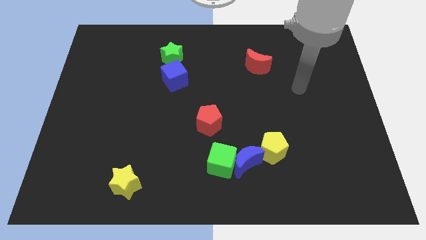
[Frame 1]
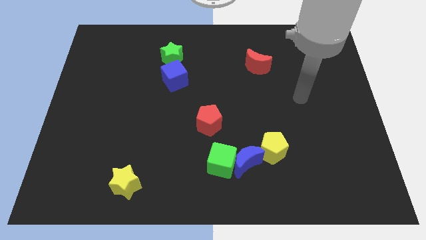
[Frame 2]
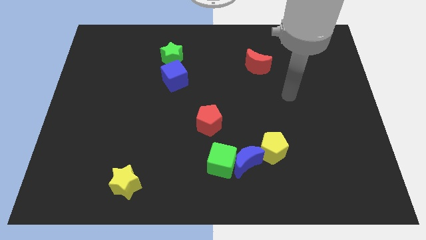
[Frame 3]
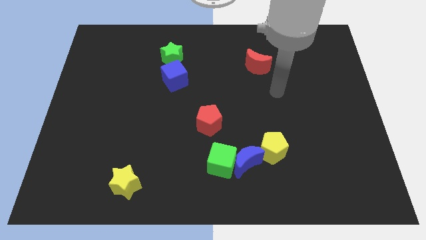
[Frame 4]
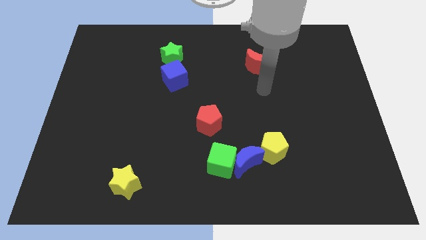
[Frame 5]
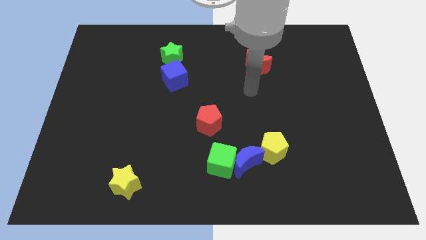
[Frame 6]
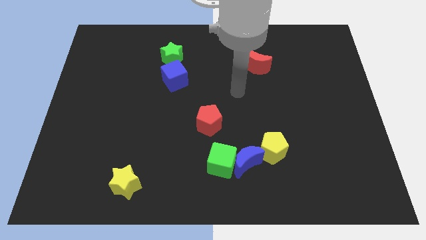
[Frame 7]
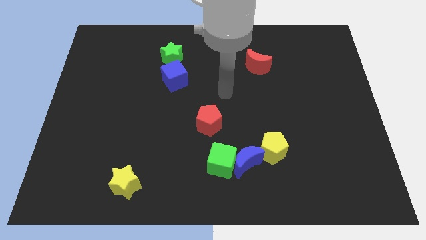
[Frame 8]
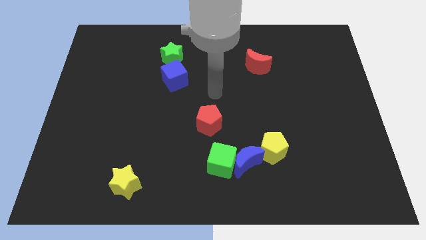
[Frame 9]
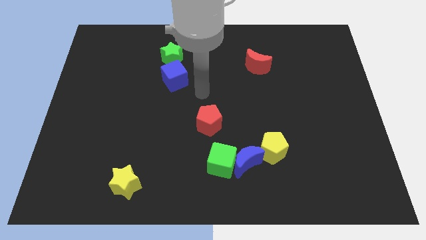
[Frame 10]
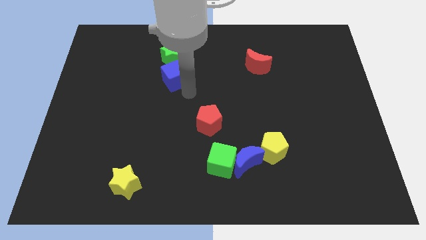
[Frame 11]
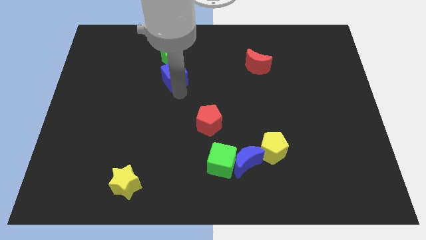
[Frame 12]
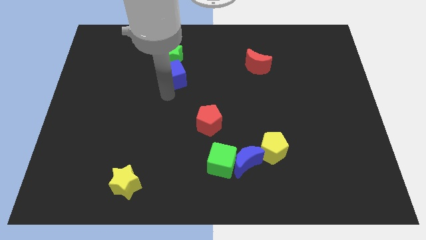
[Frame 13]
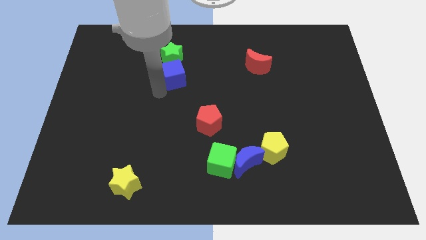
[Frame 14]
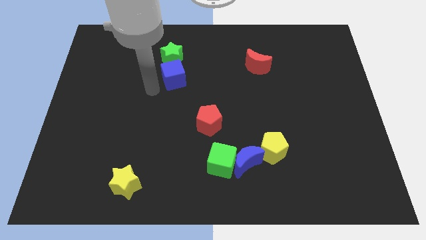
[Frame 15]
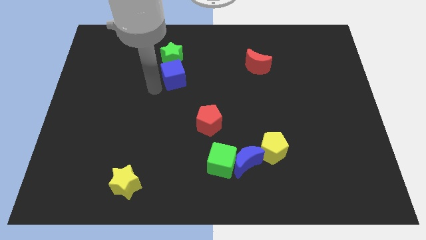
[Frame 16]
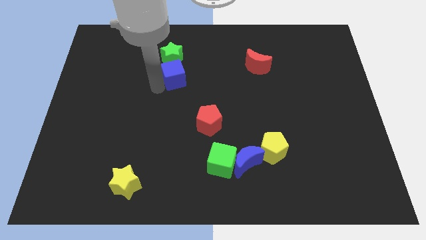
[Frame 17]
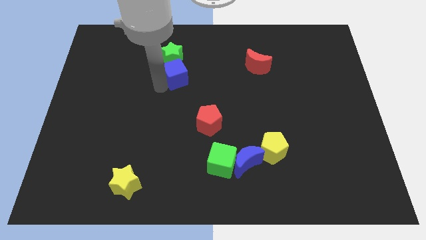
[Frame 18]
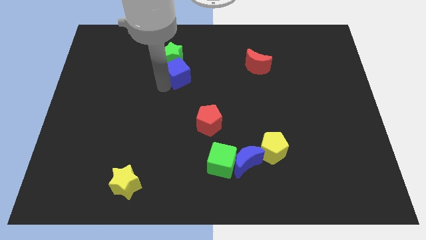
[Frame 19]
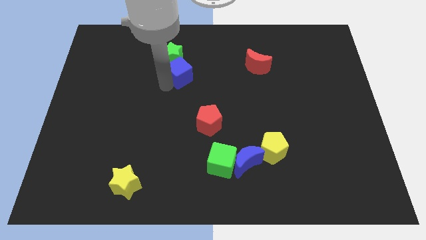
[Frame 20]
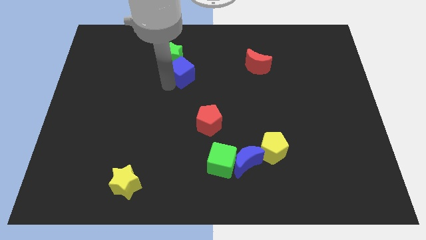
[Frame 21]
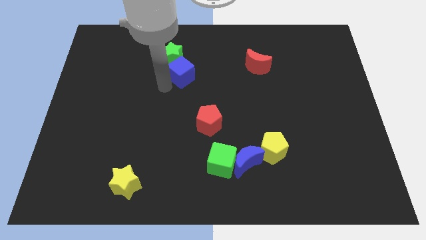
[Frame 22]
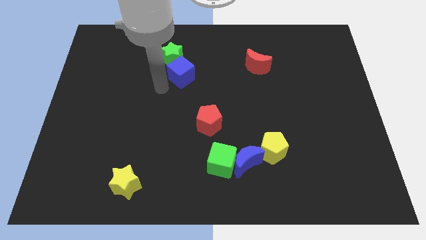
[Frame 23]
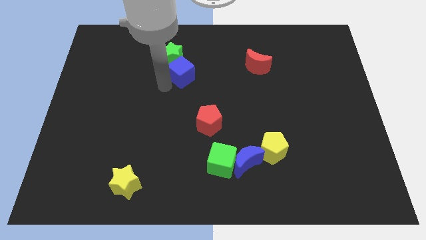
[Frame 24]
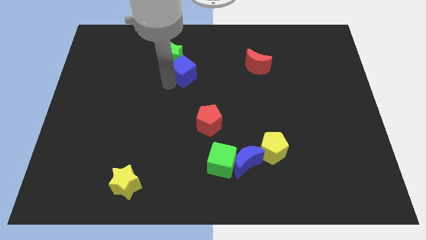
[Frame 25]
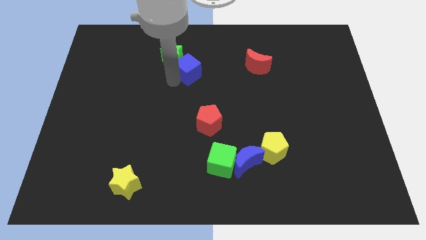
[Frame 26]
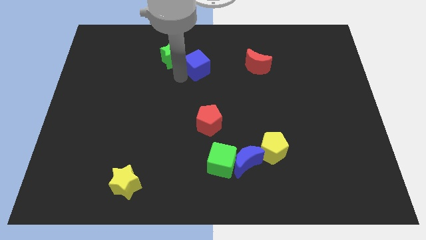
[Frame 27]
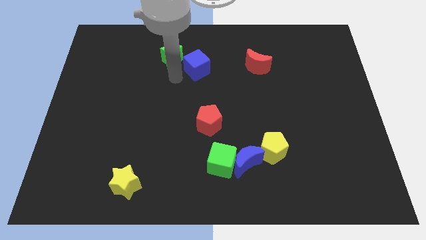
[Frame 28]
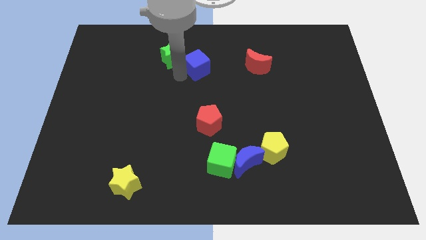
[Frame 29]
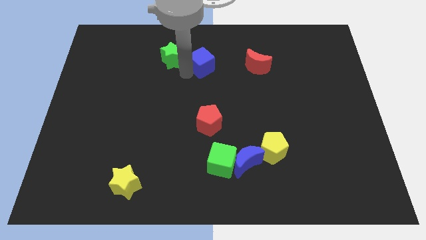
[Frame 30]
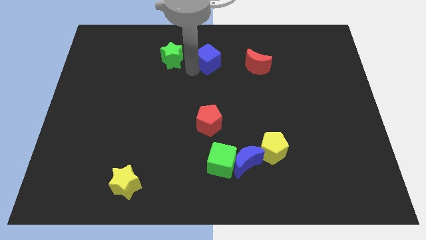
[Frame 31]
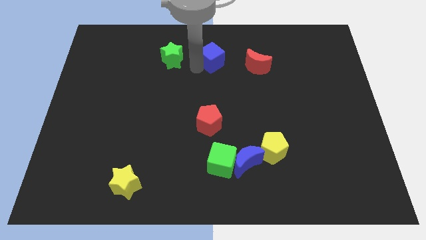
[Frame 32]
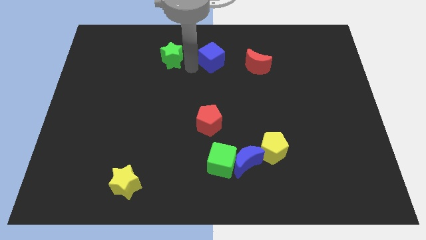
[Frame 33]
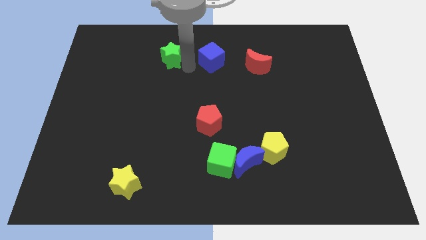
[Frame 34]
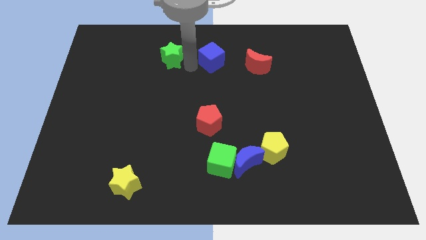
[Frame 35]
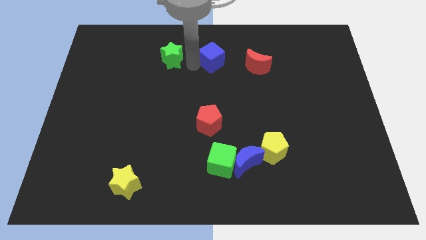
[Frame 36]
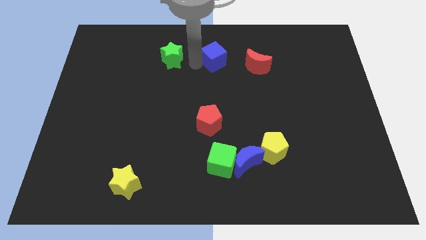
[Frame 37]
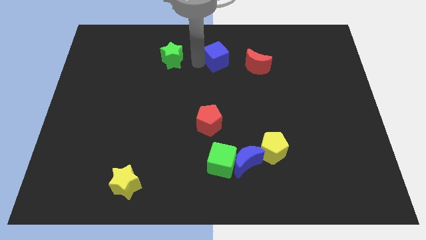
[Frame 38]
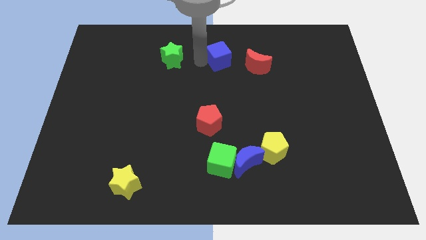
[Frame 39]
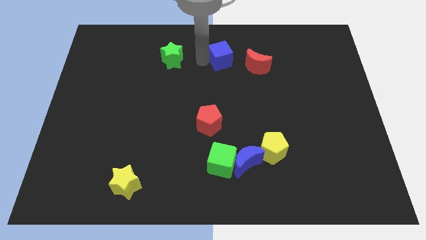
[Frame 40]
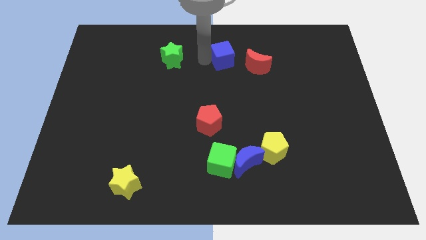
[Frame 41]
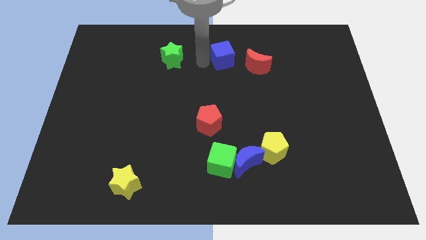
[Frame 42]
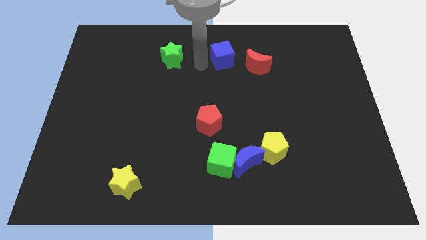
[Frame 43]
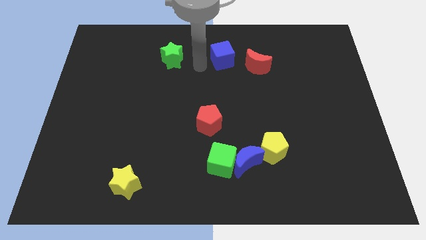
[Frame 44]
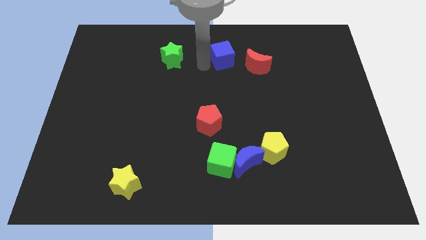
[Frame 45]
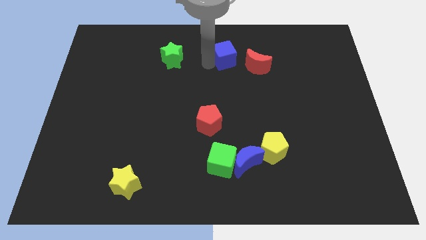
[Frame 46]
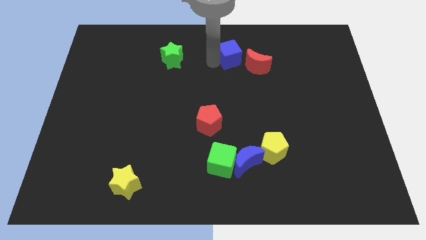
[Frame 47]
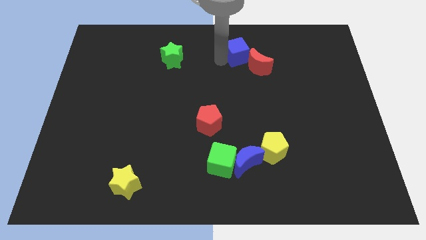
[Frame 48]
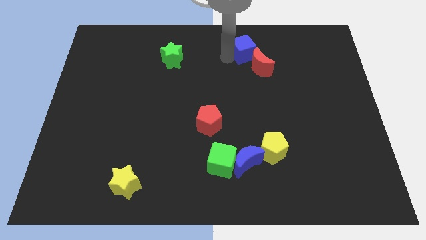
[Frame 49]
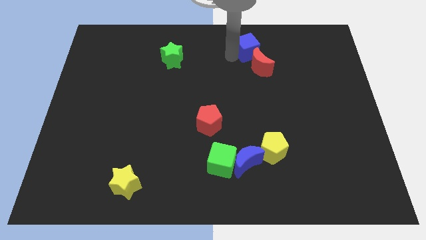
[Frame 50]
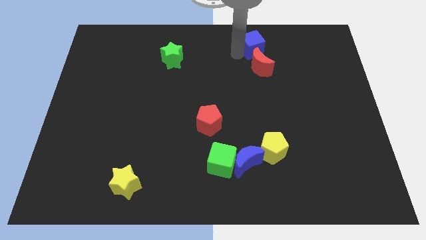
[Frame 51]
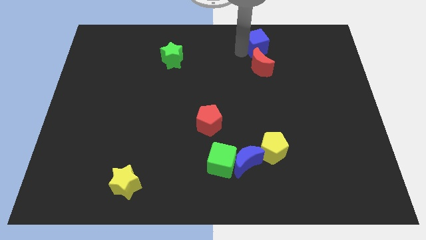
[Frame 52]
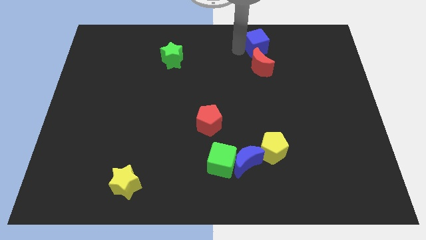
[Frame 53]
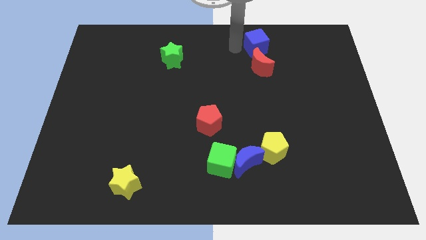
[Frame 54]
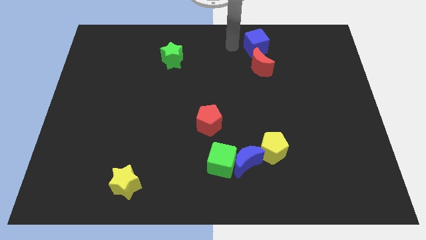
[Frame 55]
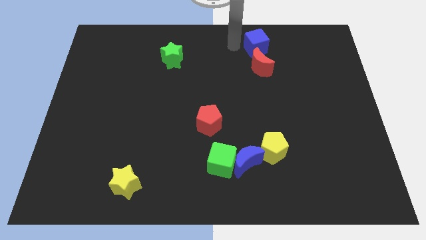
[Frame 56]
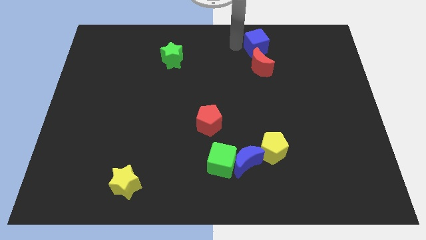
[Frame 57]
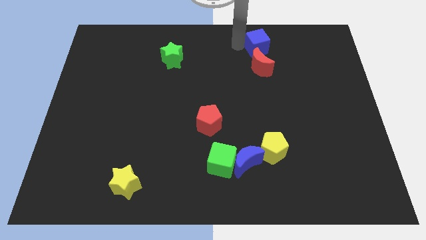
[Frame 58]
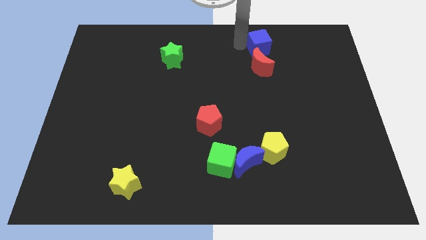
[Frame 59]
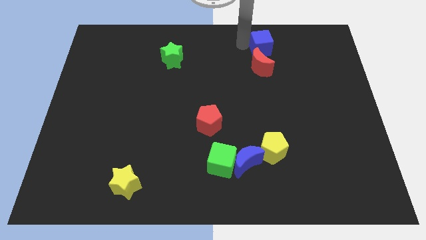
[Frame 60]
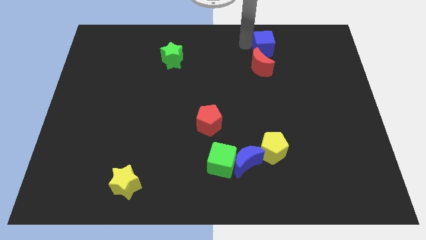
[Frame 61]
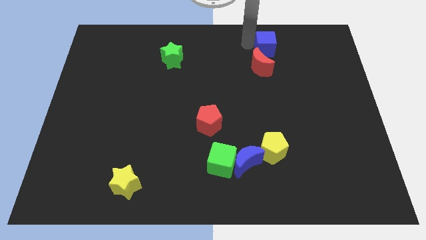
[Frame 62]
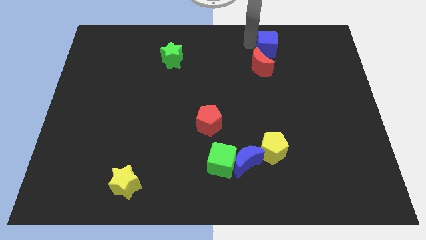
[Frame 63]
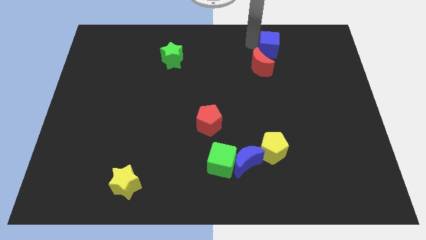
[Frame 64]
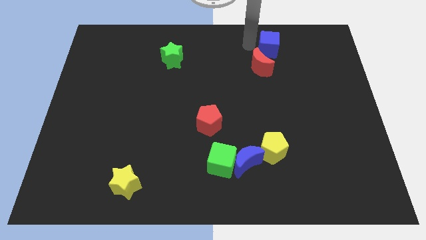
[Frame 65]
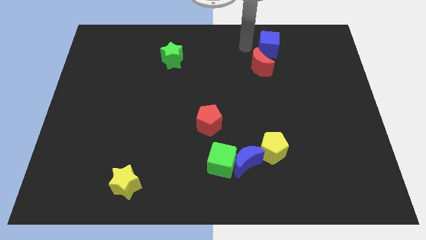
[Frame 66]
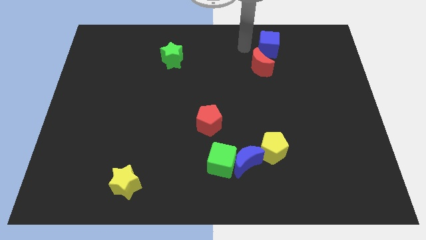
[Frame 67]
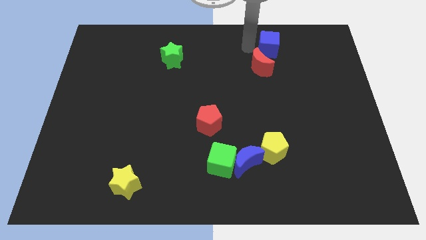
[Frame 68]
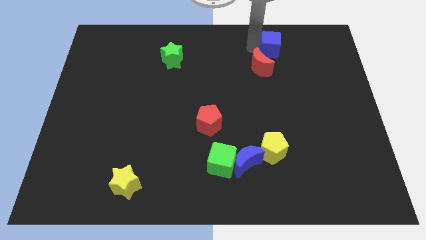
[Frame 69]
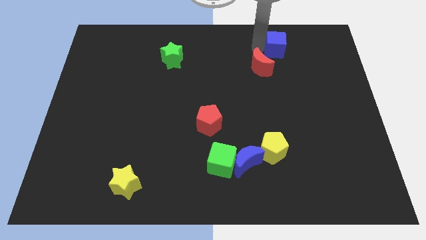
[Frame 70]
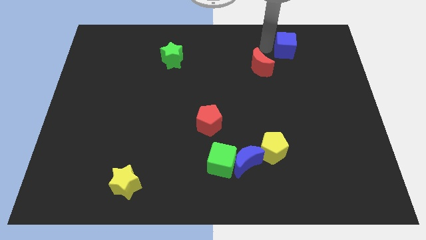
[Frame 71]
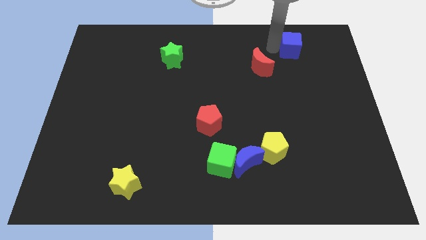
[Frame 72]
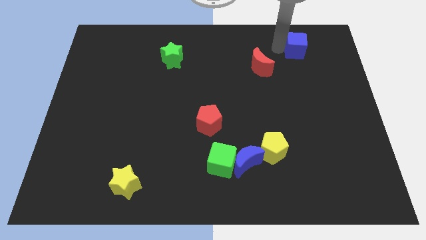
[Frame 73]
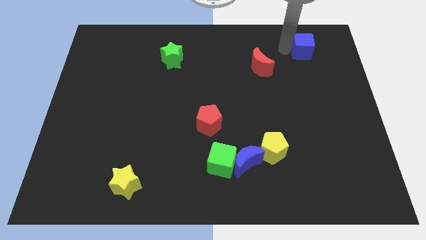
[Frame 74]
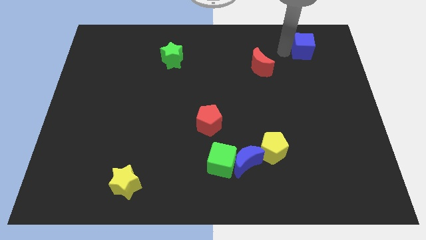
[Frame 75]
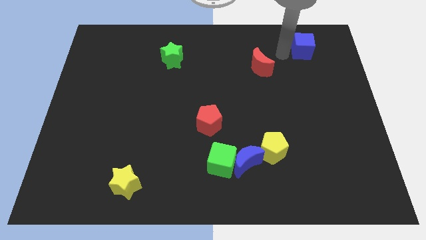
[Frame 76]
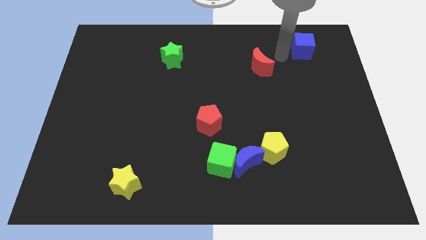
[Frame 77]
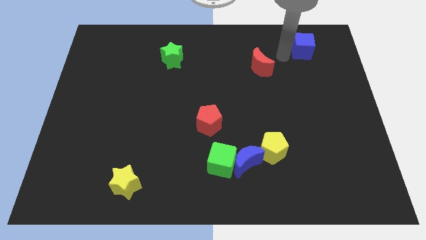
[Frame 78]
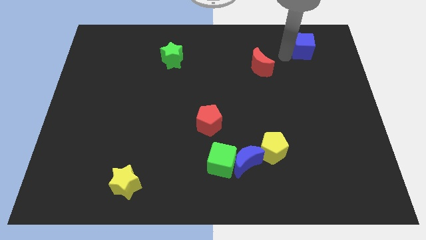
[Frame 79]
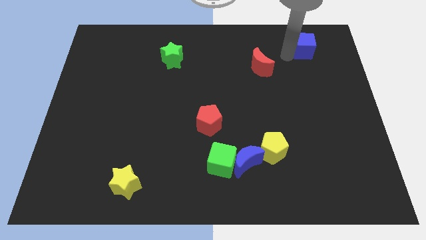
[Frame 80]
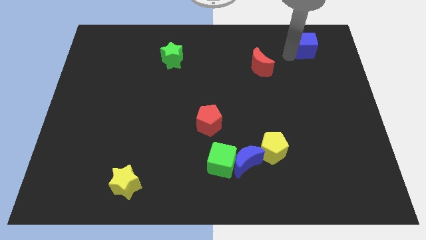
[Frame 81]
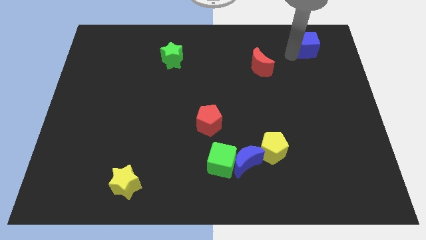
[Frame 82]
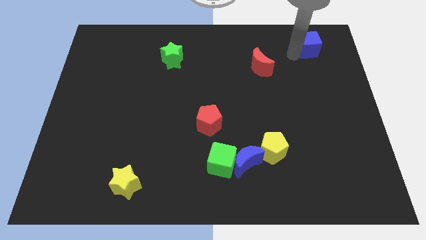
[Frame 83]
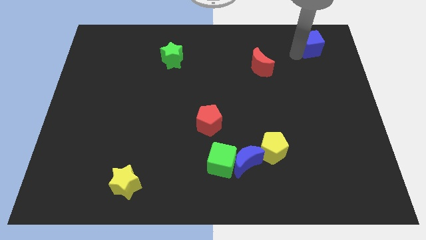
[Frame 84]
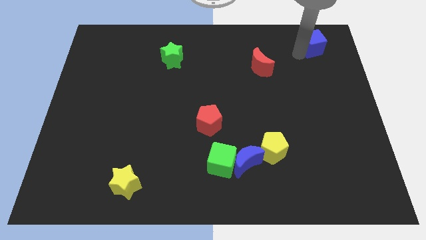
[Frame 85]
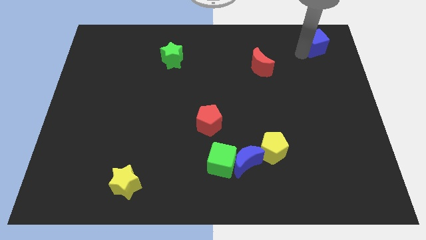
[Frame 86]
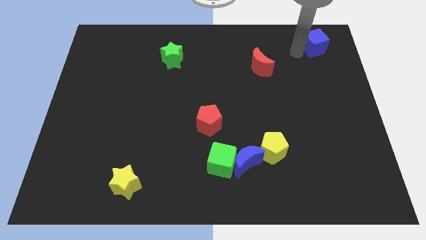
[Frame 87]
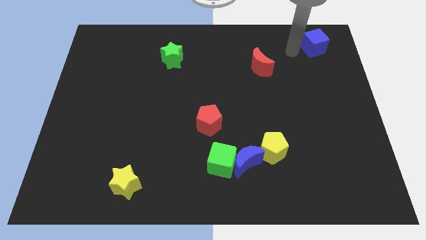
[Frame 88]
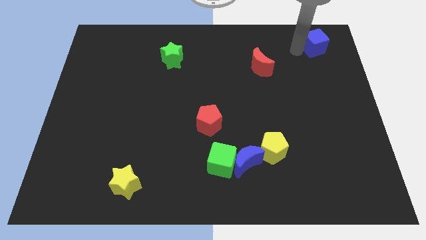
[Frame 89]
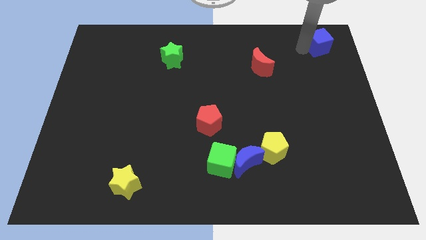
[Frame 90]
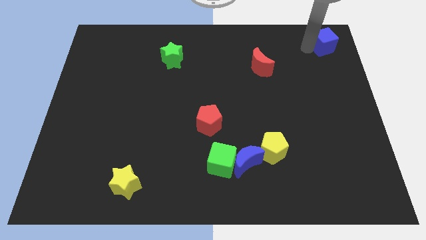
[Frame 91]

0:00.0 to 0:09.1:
slide the blue cube to the top right corner
